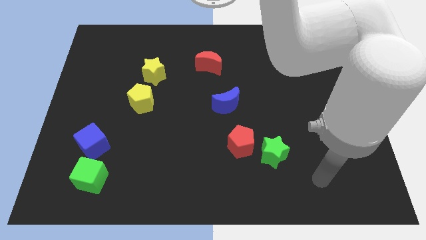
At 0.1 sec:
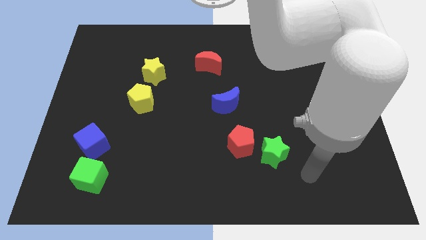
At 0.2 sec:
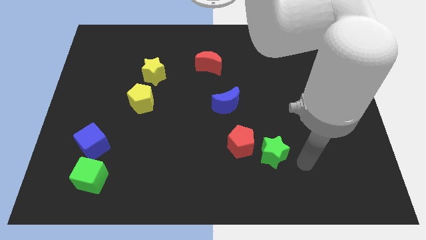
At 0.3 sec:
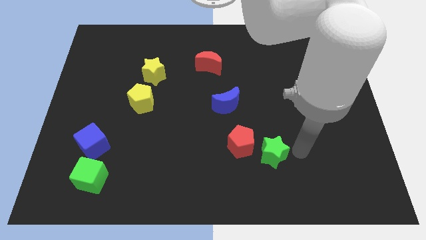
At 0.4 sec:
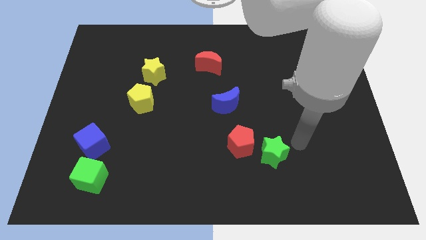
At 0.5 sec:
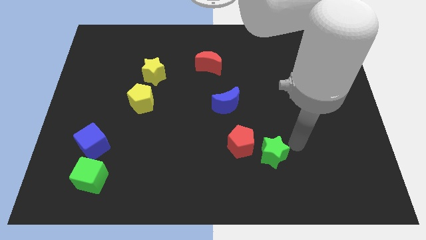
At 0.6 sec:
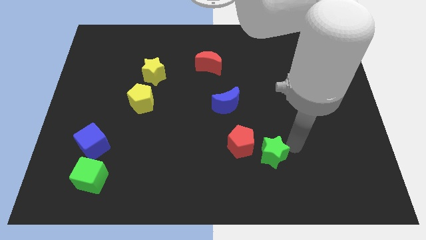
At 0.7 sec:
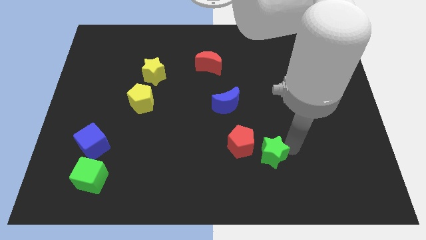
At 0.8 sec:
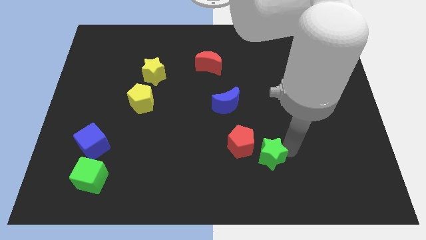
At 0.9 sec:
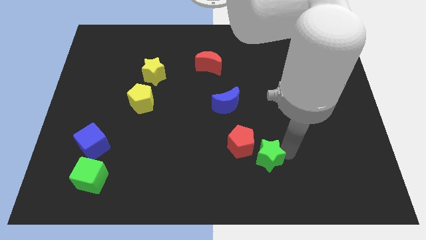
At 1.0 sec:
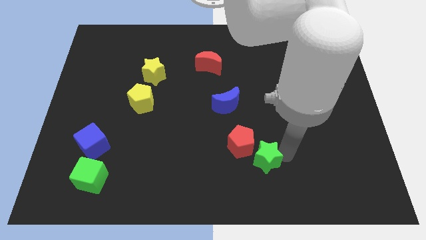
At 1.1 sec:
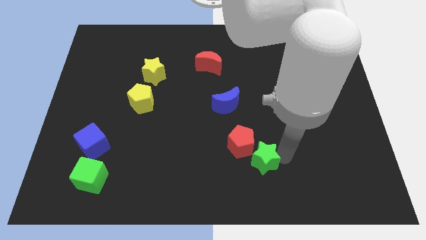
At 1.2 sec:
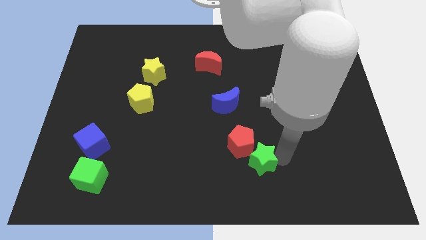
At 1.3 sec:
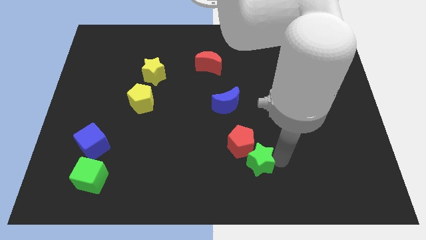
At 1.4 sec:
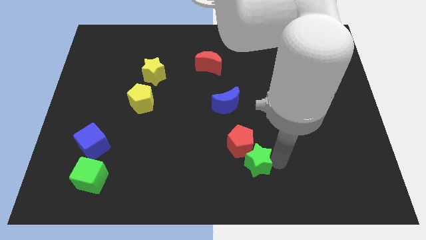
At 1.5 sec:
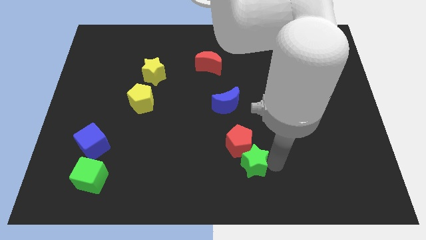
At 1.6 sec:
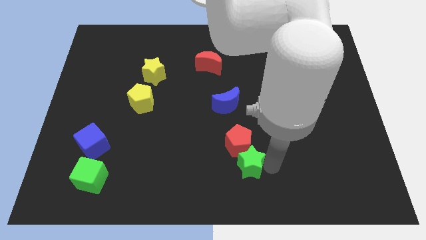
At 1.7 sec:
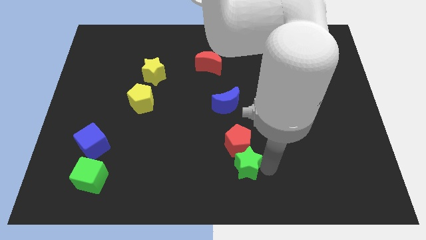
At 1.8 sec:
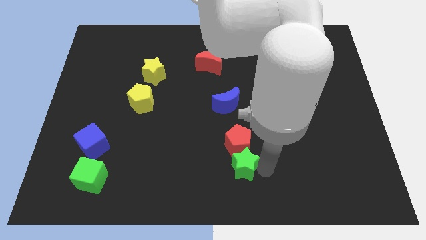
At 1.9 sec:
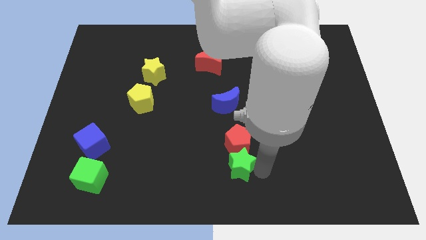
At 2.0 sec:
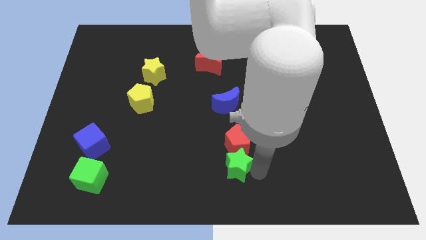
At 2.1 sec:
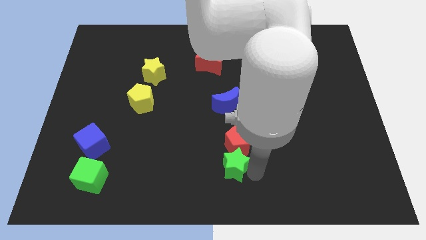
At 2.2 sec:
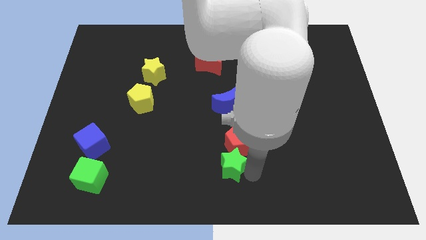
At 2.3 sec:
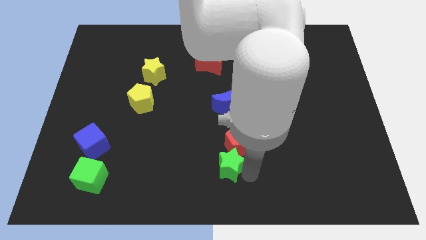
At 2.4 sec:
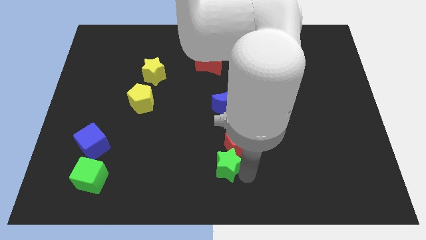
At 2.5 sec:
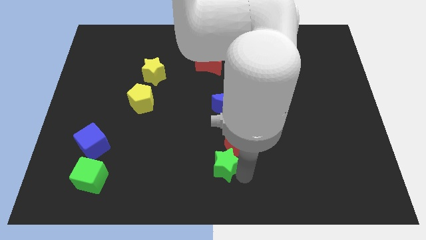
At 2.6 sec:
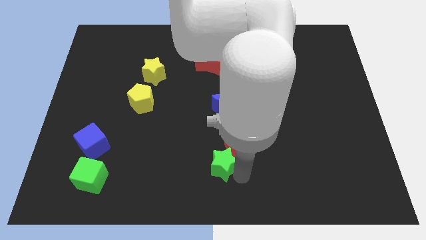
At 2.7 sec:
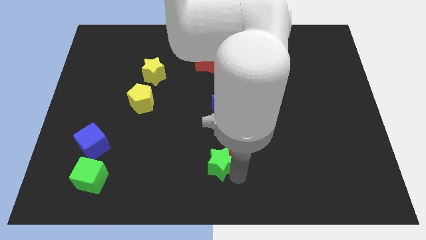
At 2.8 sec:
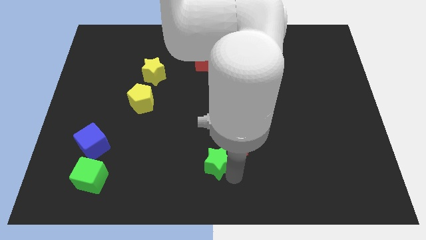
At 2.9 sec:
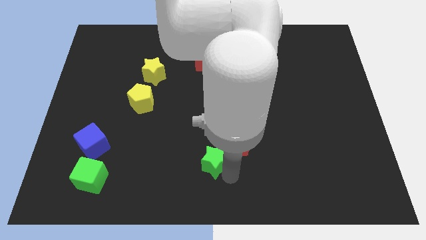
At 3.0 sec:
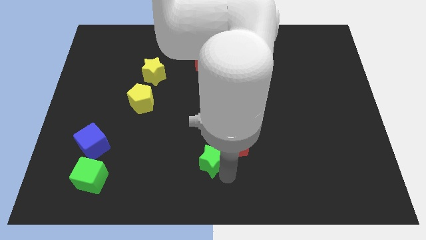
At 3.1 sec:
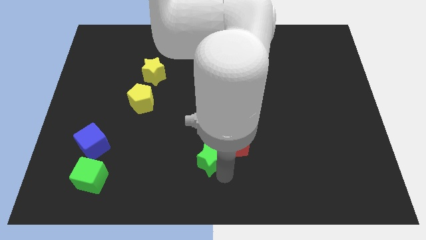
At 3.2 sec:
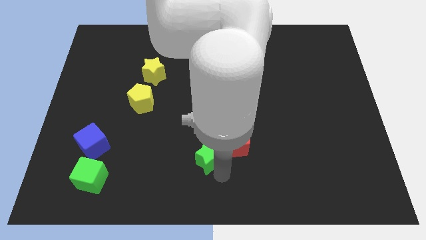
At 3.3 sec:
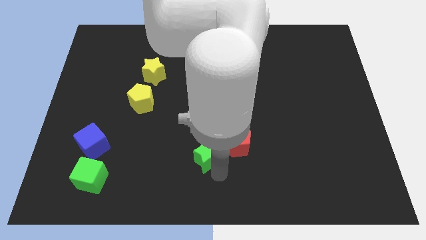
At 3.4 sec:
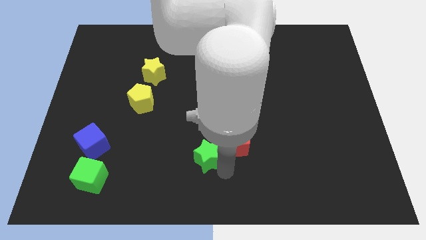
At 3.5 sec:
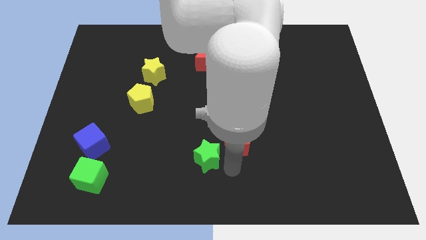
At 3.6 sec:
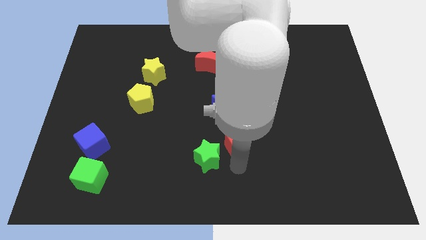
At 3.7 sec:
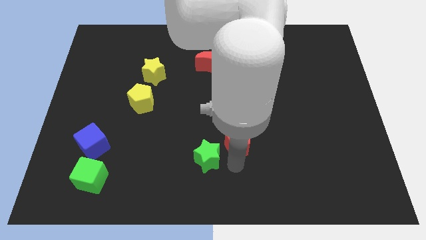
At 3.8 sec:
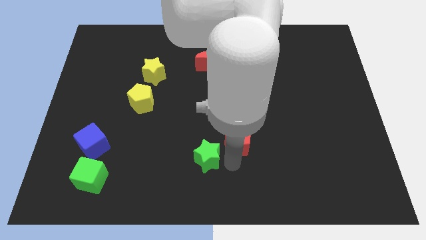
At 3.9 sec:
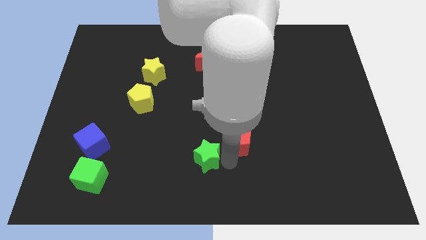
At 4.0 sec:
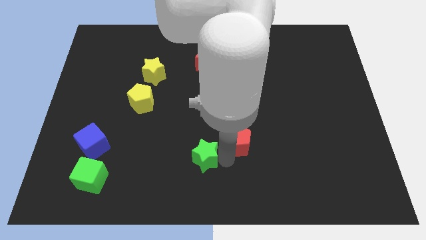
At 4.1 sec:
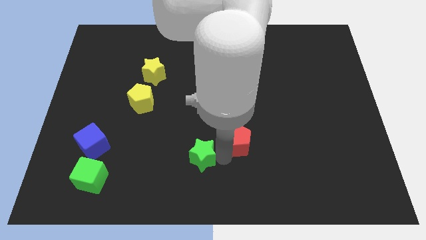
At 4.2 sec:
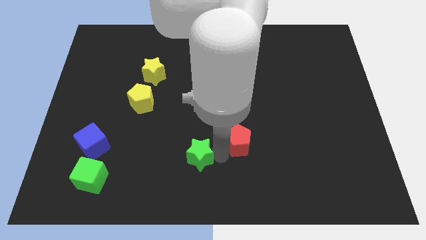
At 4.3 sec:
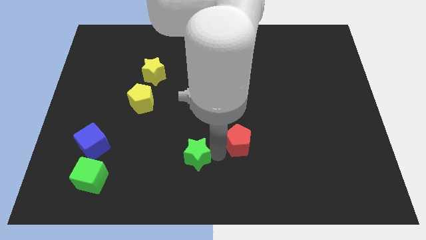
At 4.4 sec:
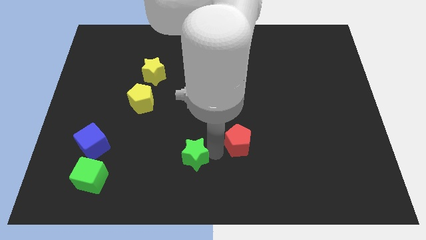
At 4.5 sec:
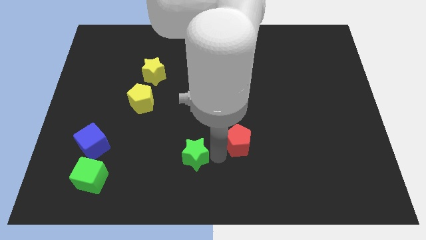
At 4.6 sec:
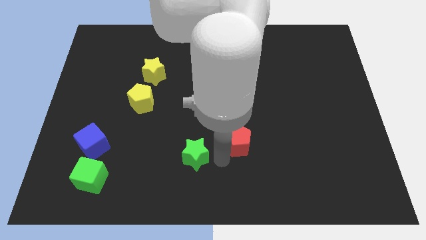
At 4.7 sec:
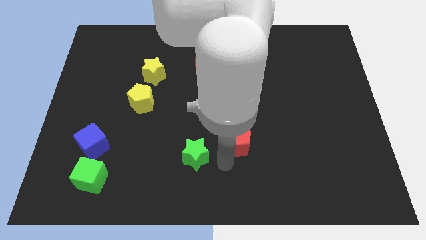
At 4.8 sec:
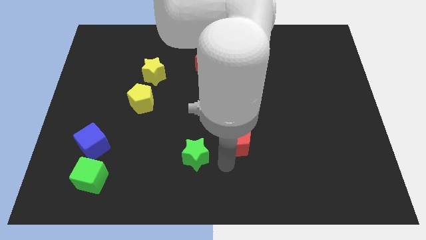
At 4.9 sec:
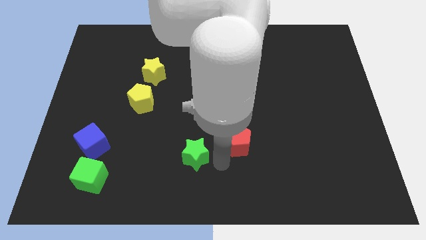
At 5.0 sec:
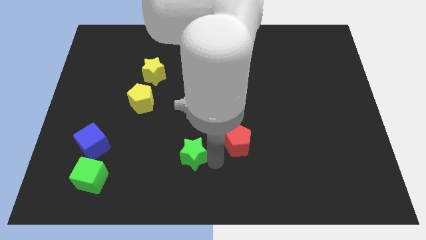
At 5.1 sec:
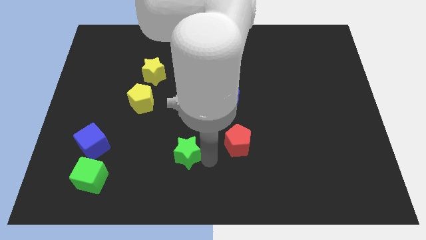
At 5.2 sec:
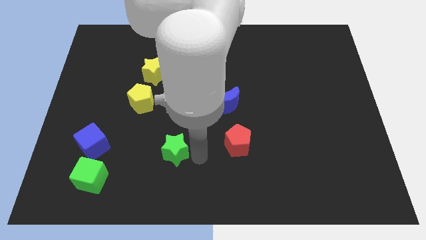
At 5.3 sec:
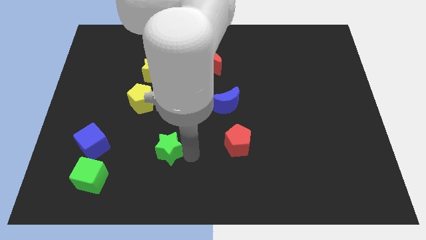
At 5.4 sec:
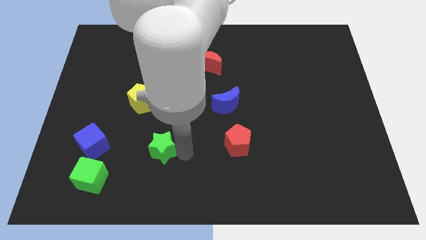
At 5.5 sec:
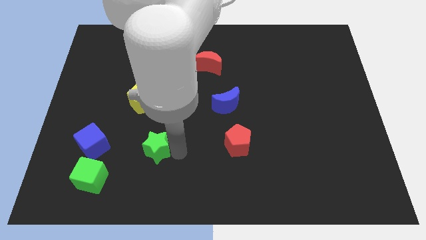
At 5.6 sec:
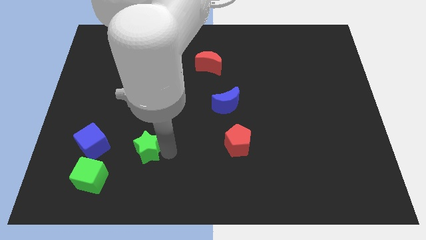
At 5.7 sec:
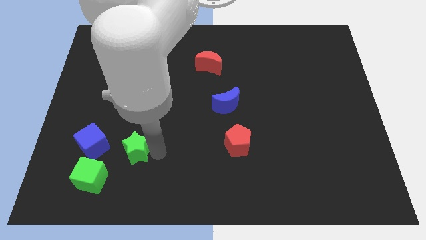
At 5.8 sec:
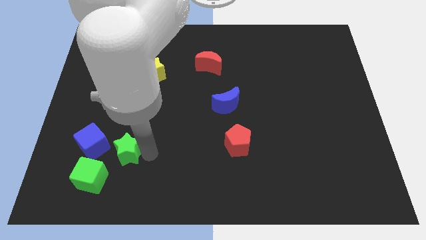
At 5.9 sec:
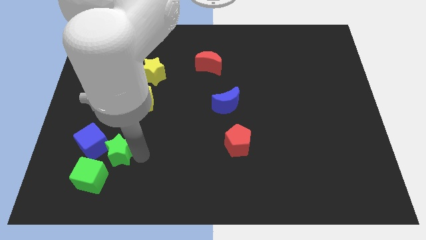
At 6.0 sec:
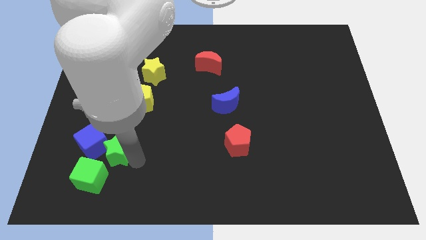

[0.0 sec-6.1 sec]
push the green star above the green cube
